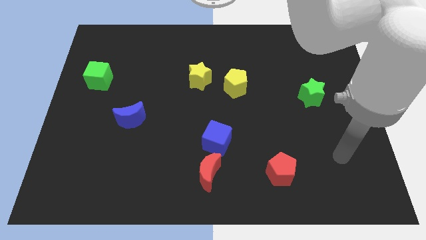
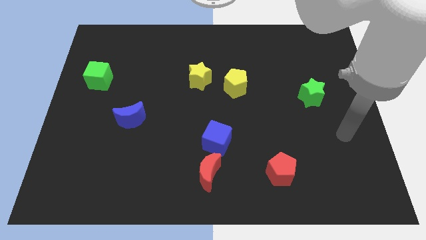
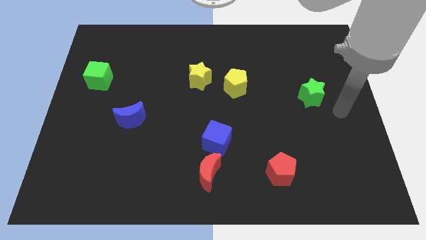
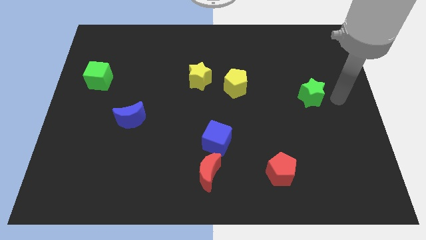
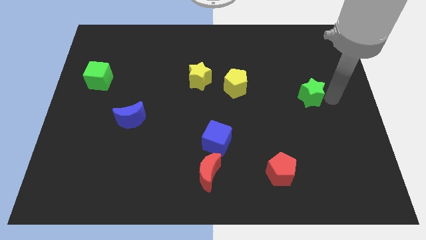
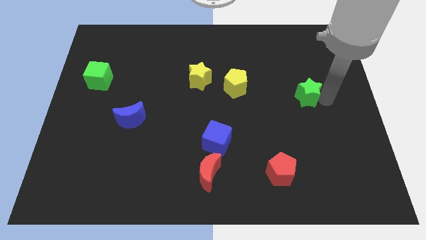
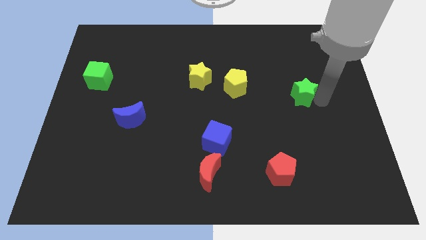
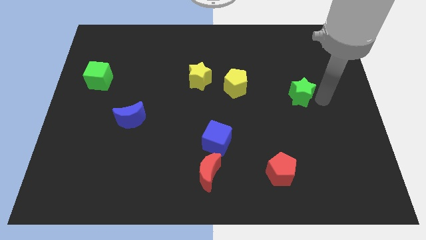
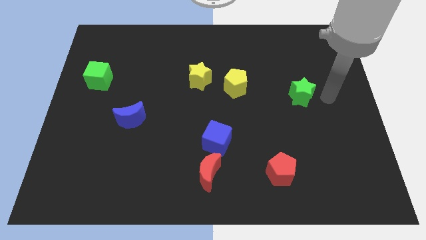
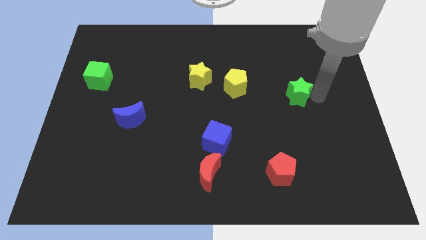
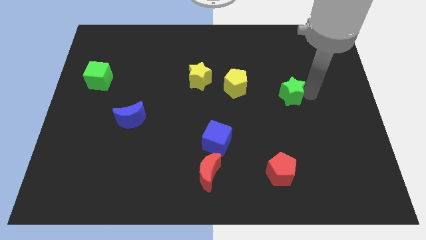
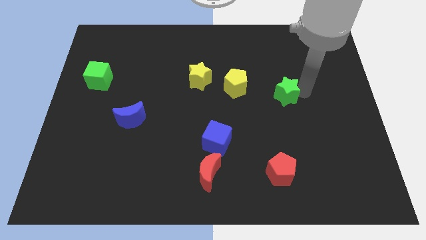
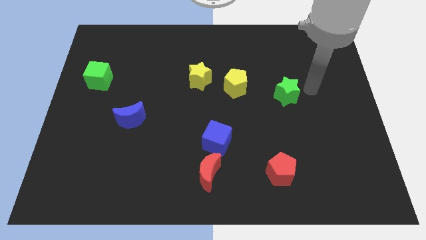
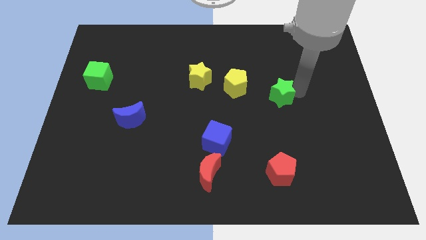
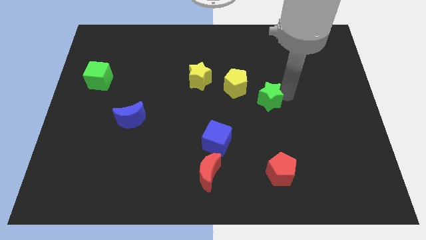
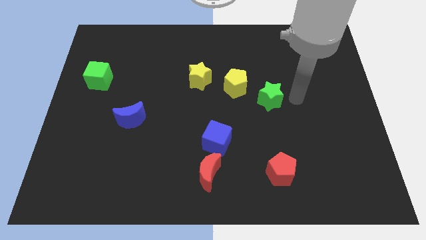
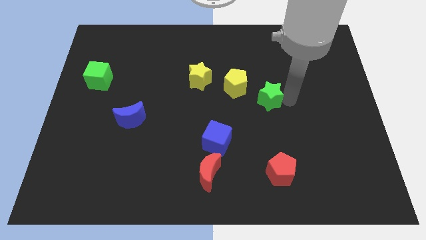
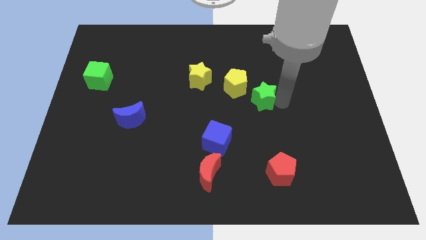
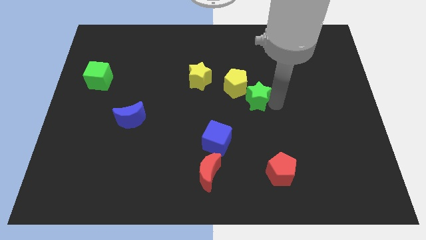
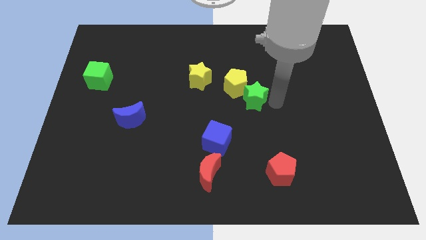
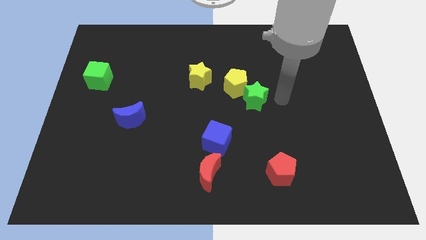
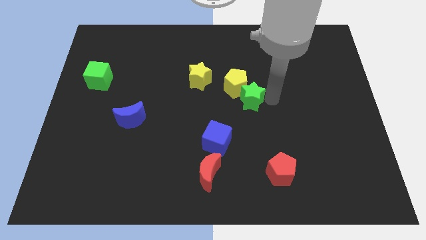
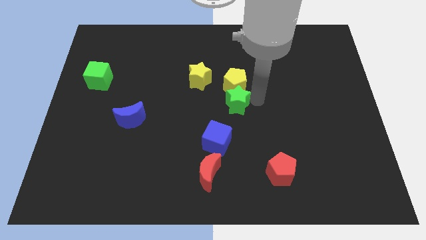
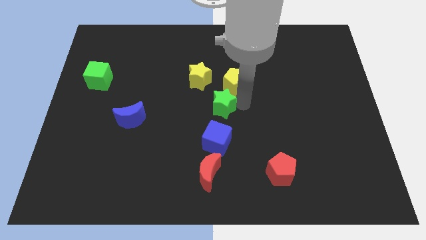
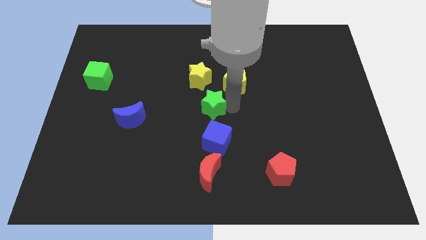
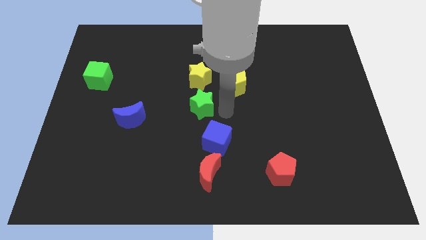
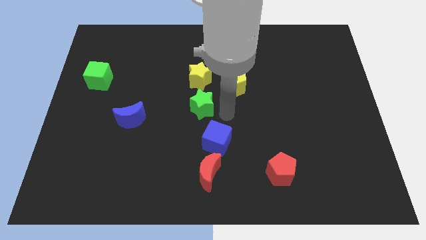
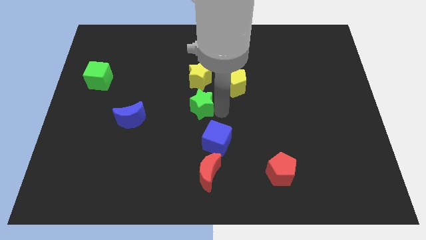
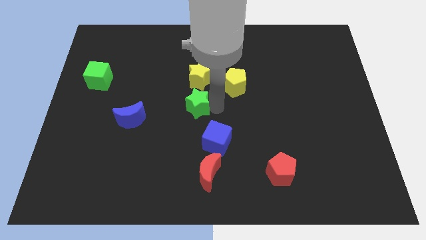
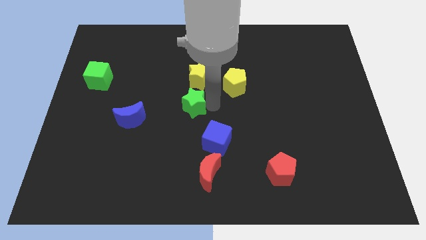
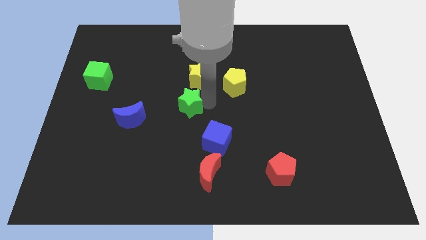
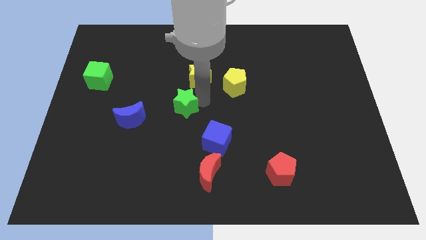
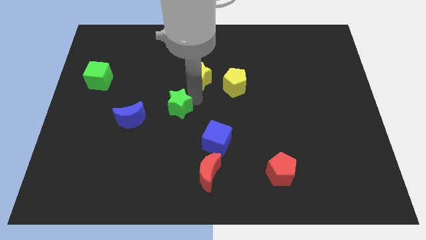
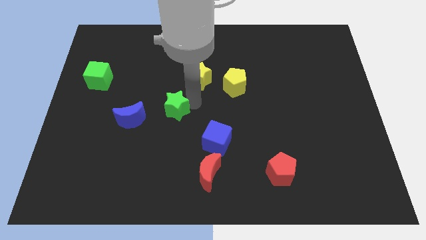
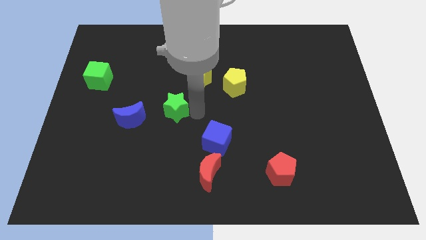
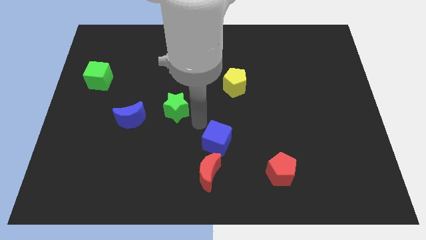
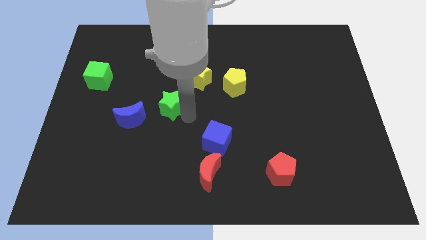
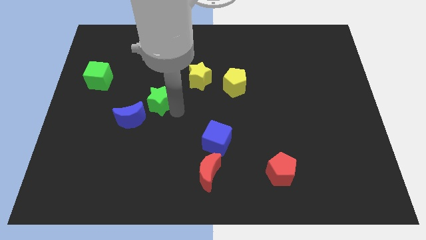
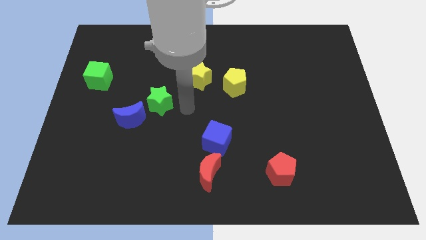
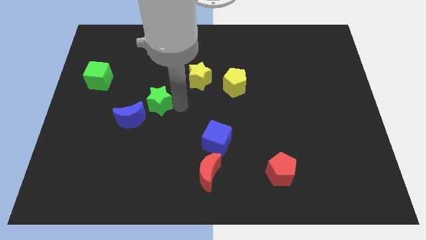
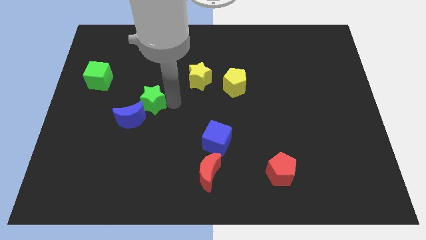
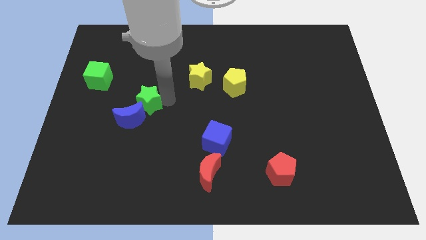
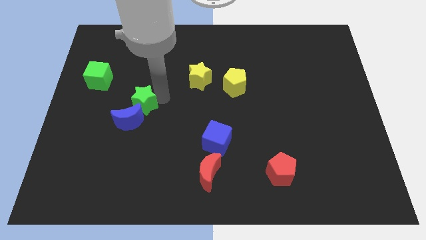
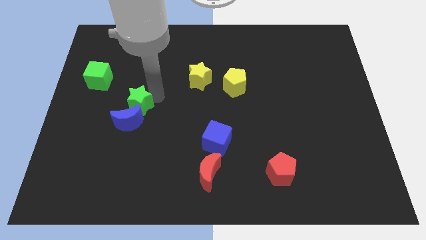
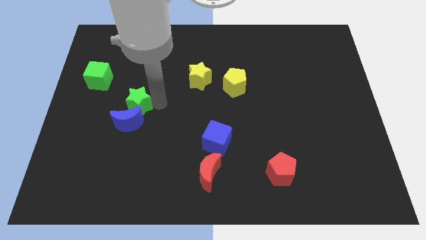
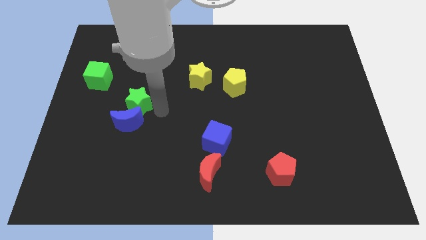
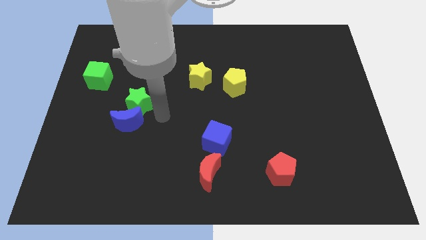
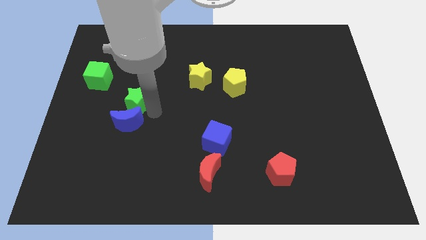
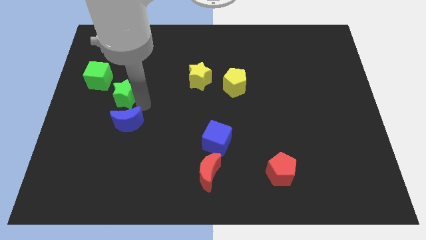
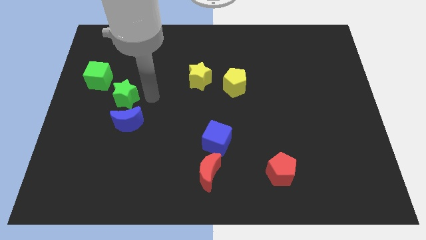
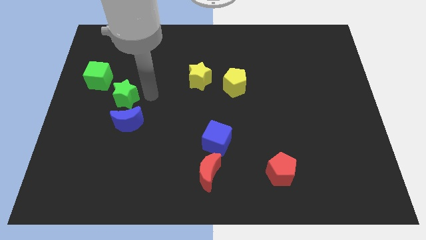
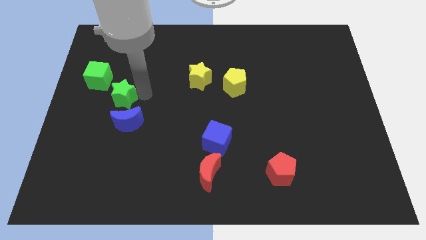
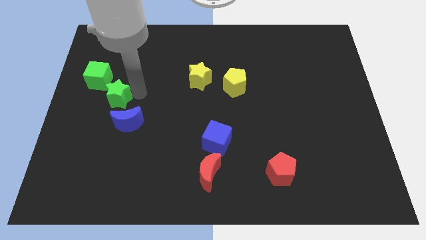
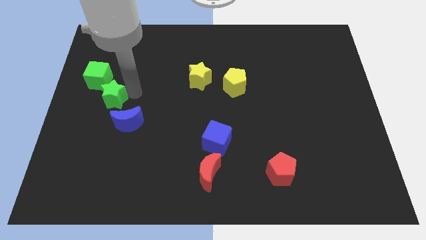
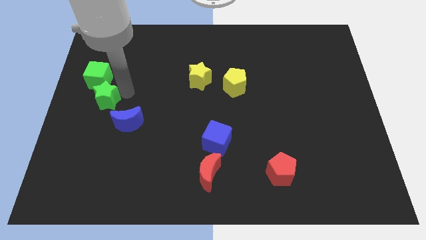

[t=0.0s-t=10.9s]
move the green star to the left side of the board
